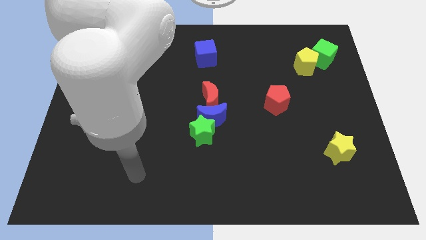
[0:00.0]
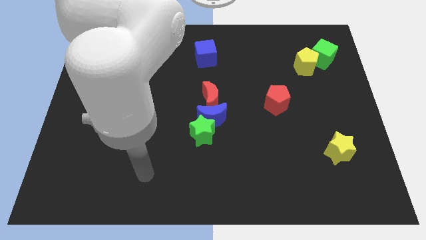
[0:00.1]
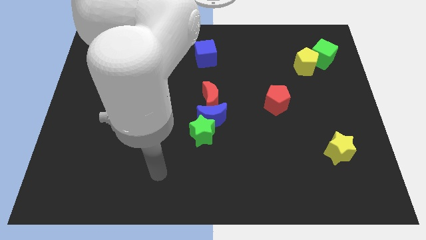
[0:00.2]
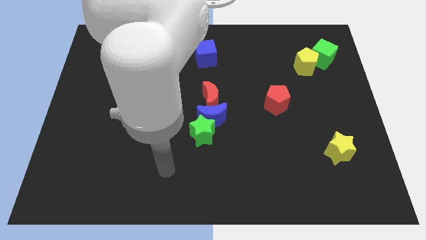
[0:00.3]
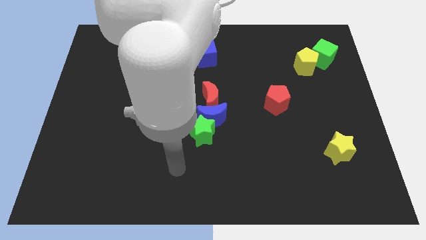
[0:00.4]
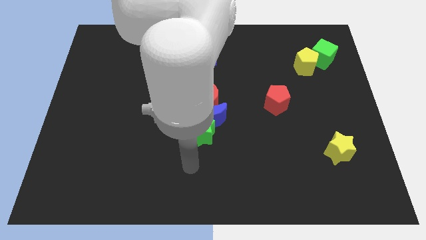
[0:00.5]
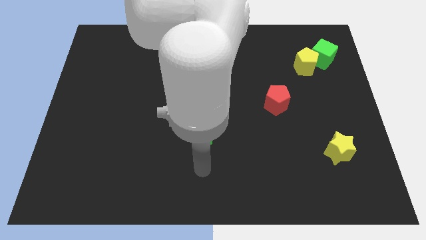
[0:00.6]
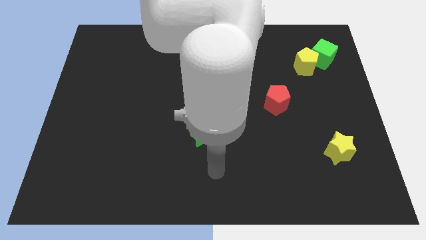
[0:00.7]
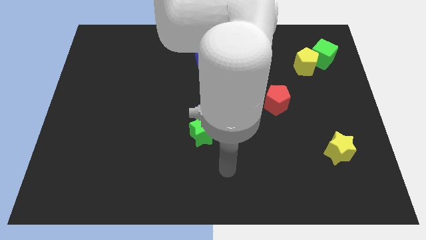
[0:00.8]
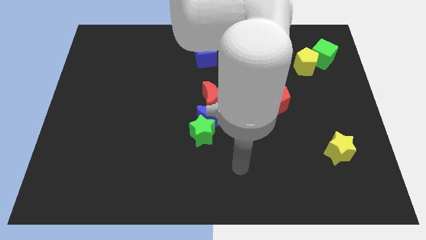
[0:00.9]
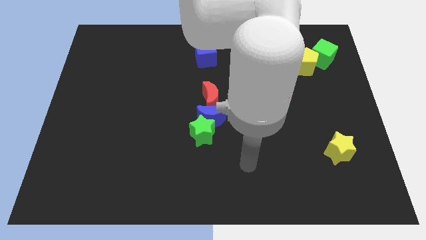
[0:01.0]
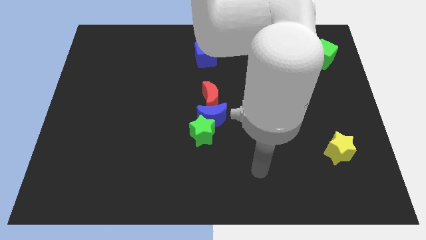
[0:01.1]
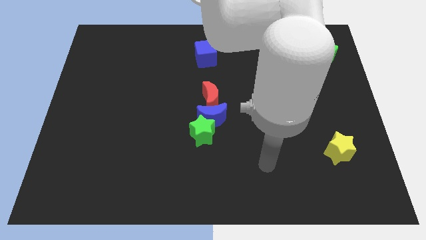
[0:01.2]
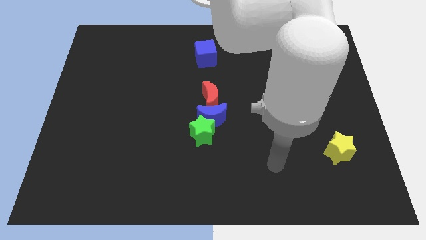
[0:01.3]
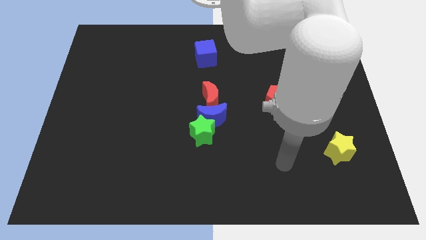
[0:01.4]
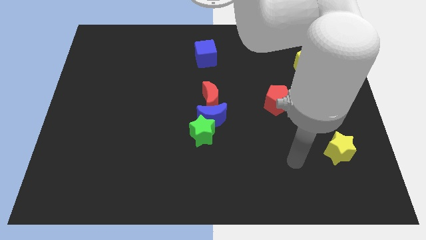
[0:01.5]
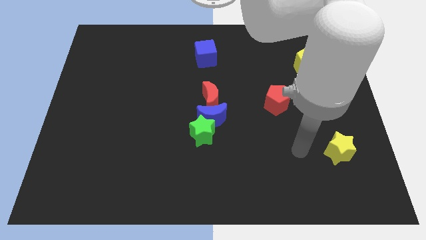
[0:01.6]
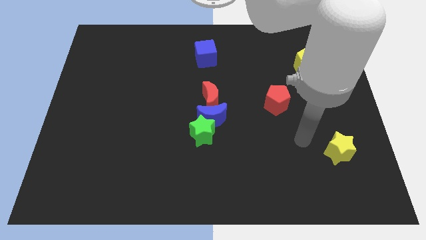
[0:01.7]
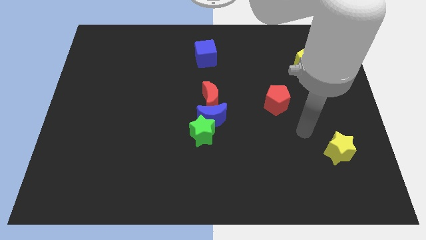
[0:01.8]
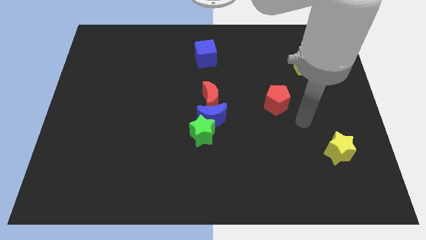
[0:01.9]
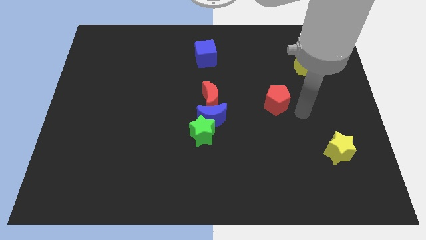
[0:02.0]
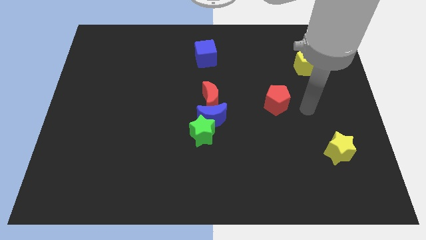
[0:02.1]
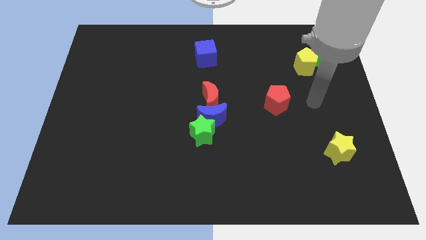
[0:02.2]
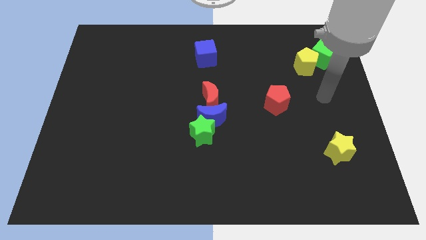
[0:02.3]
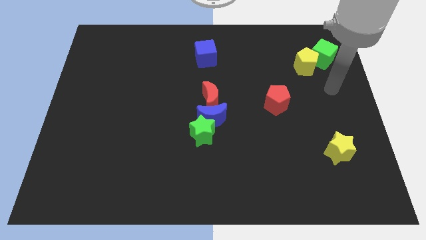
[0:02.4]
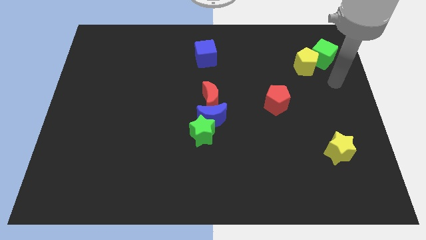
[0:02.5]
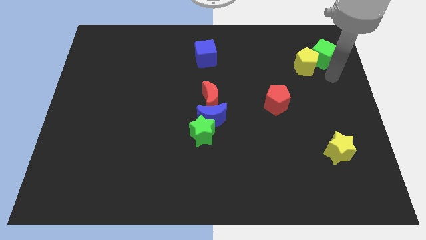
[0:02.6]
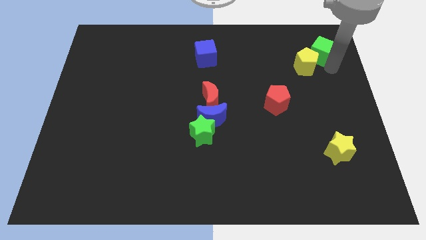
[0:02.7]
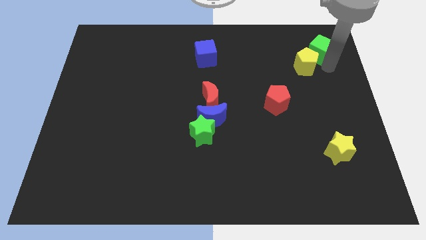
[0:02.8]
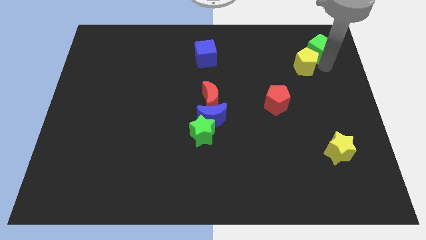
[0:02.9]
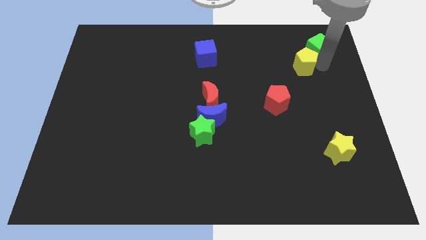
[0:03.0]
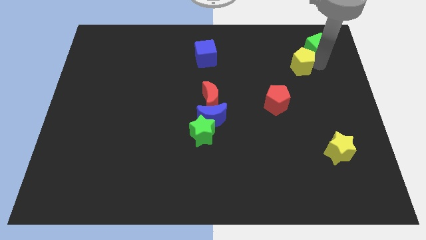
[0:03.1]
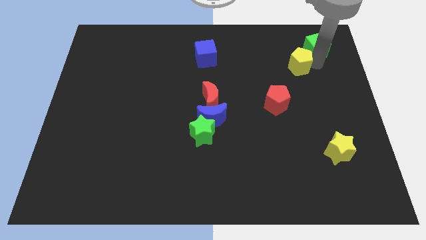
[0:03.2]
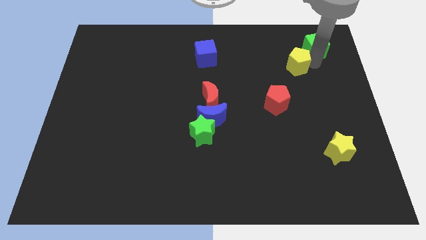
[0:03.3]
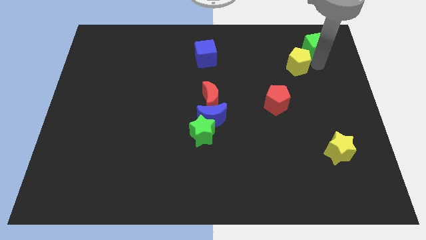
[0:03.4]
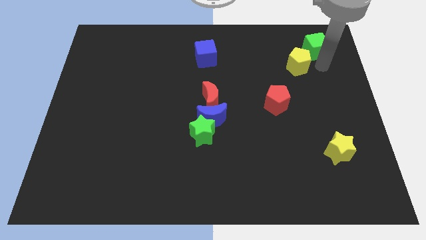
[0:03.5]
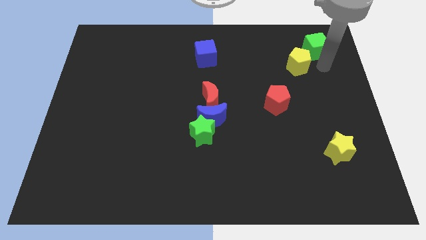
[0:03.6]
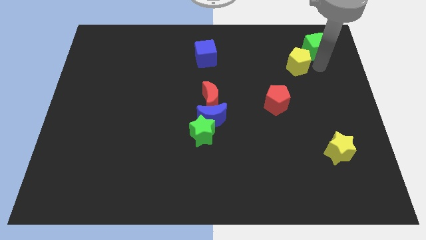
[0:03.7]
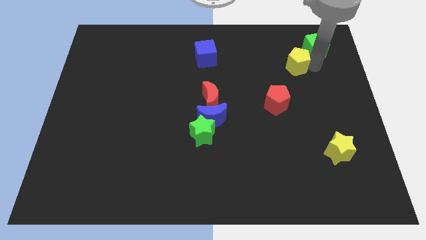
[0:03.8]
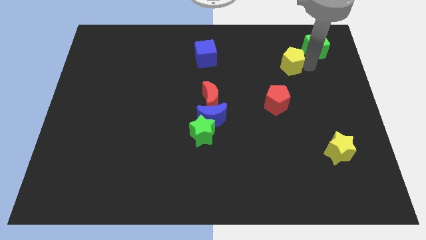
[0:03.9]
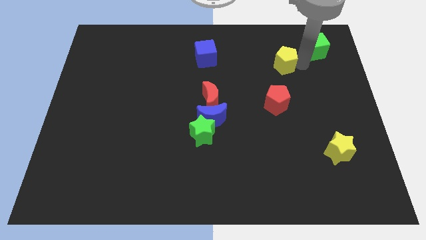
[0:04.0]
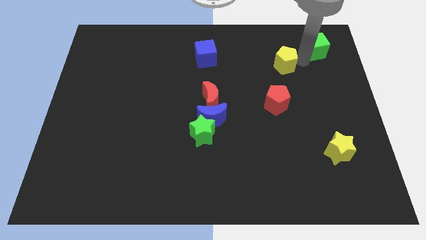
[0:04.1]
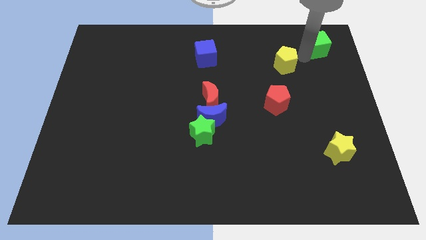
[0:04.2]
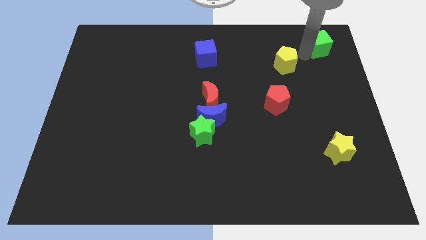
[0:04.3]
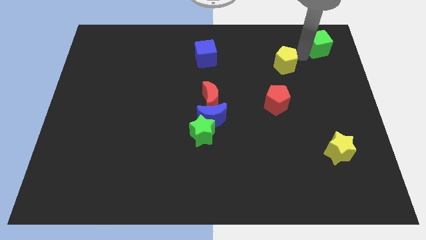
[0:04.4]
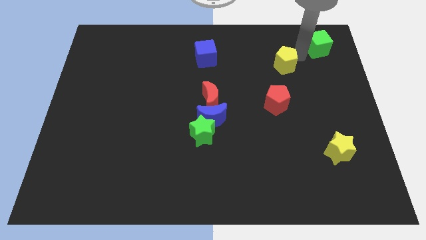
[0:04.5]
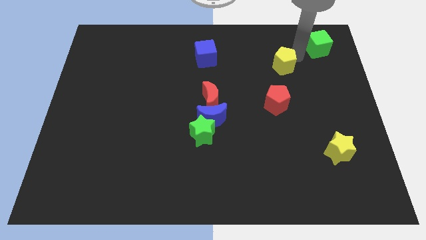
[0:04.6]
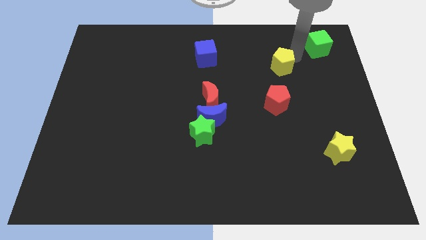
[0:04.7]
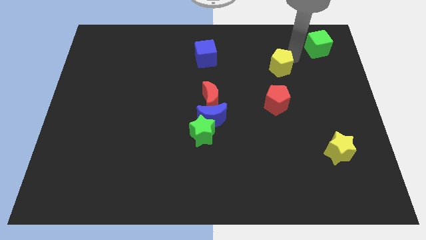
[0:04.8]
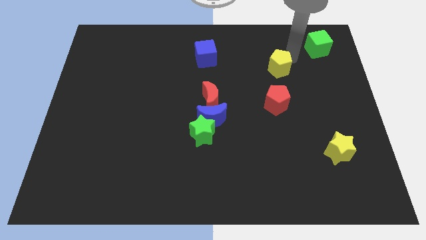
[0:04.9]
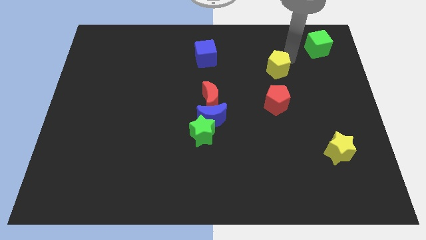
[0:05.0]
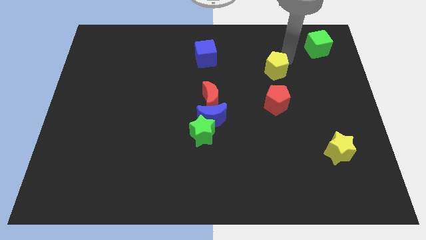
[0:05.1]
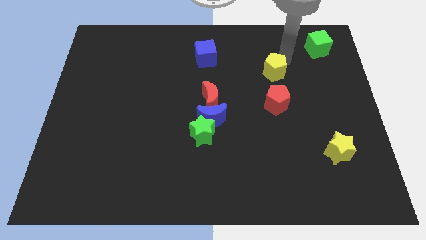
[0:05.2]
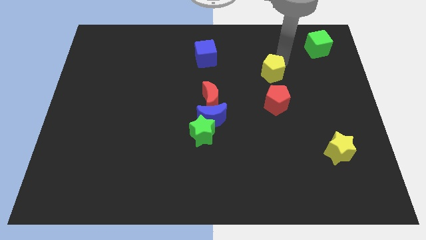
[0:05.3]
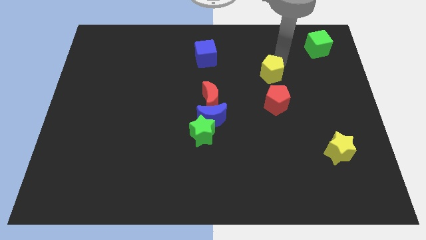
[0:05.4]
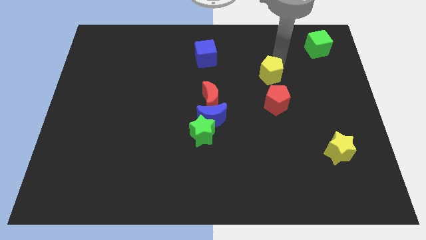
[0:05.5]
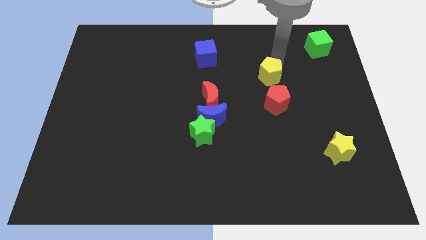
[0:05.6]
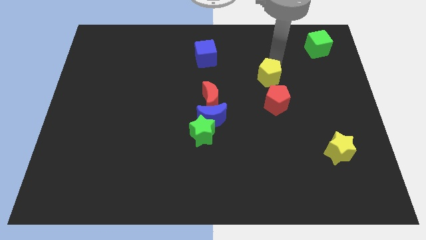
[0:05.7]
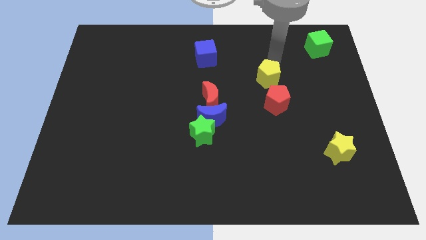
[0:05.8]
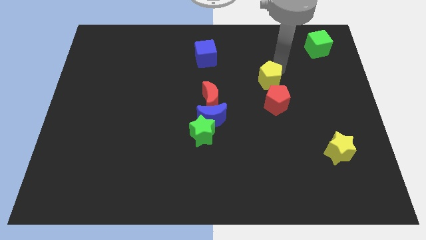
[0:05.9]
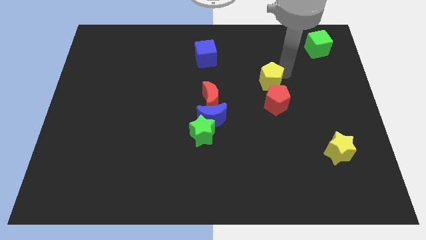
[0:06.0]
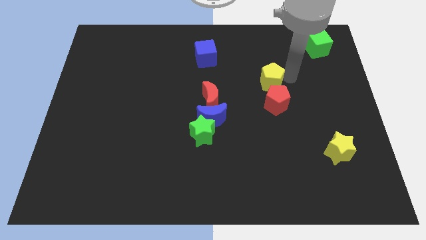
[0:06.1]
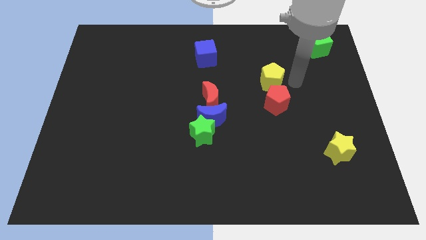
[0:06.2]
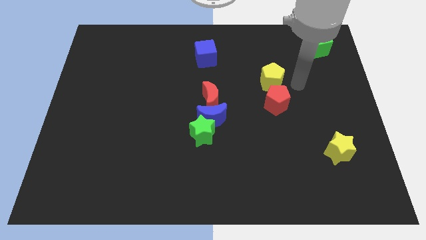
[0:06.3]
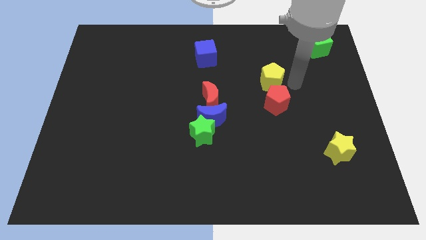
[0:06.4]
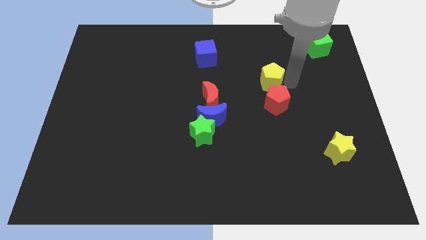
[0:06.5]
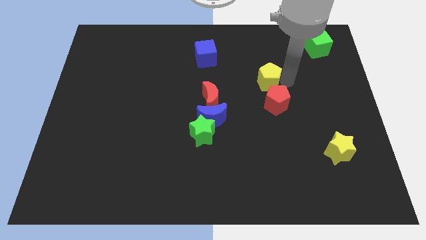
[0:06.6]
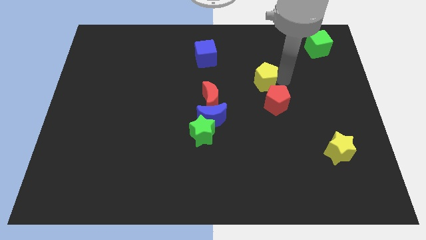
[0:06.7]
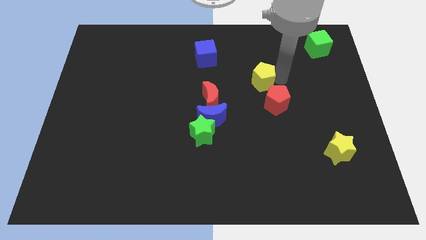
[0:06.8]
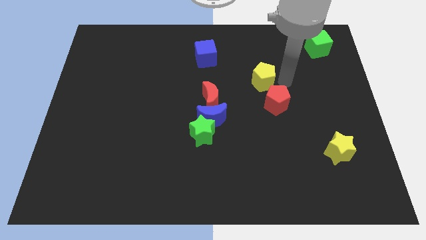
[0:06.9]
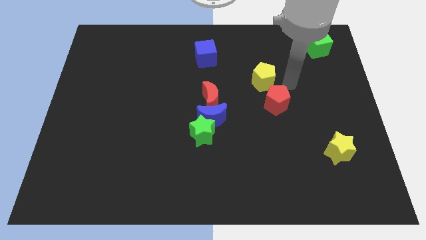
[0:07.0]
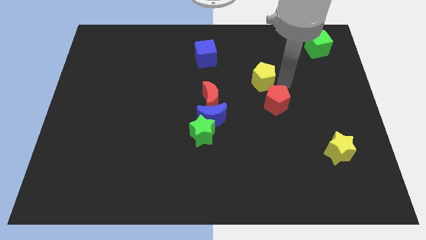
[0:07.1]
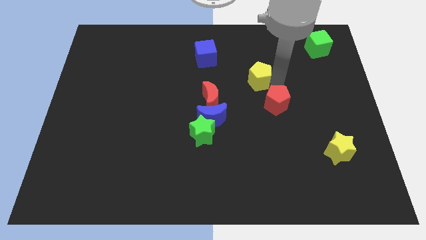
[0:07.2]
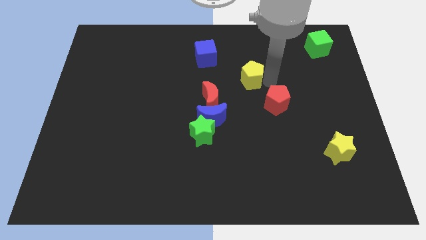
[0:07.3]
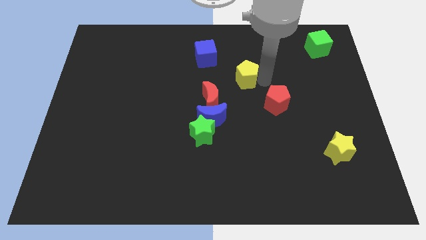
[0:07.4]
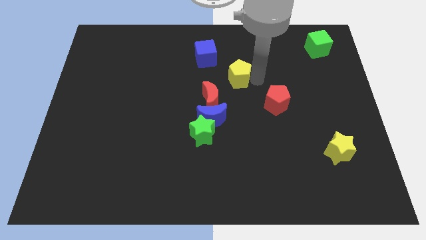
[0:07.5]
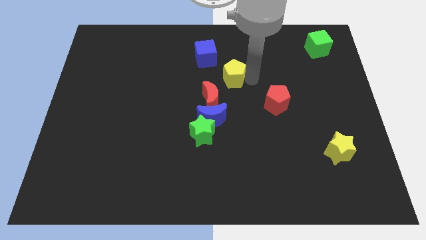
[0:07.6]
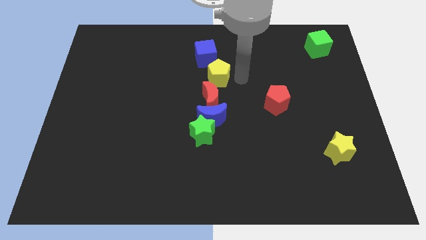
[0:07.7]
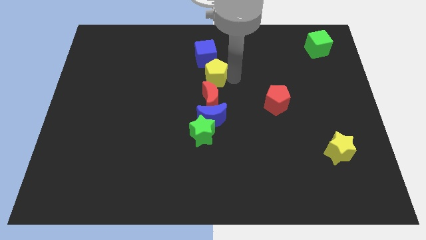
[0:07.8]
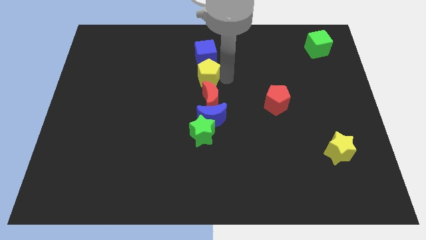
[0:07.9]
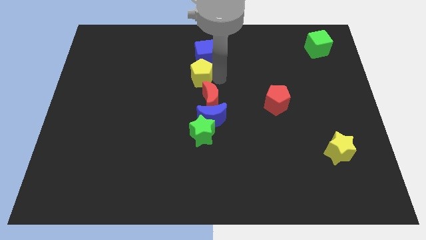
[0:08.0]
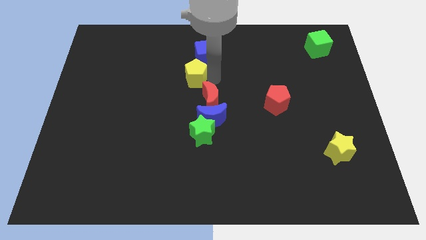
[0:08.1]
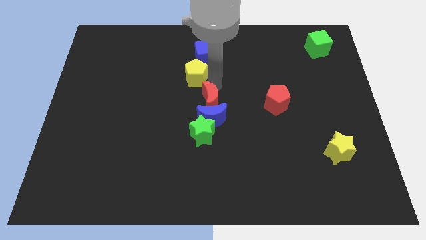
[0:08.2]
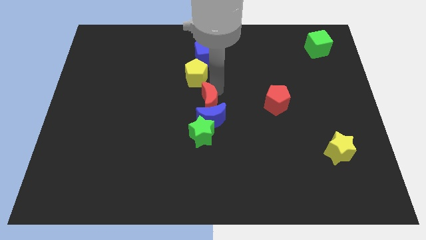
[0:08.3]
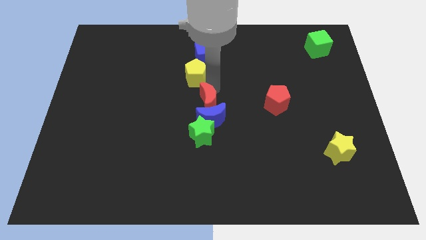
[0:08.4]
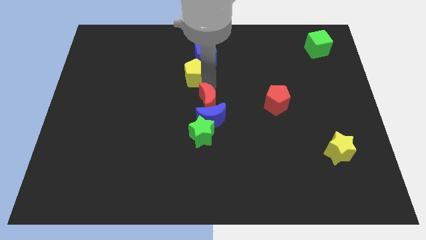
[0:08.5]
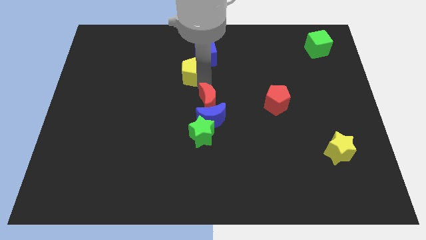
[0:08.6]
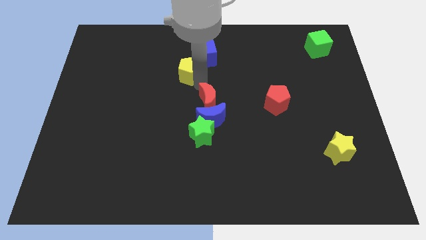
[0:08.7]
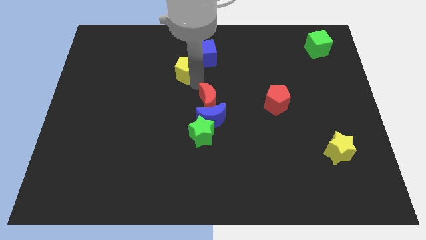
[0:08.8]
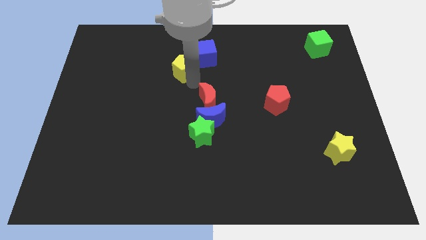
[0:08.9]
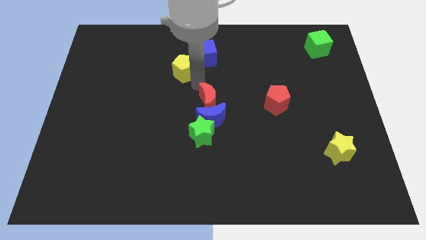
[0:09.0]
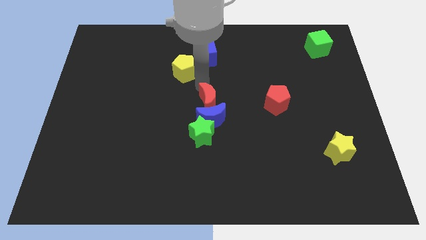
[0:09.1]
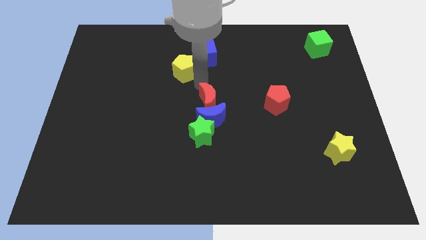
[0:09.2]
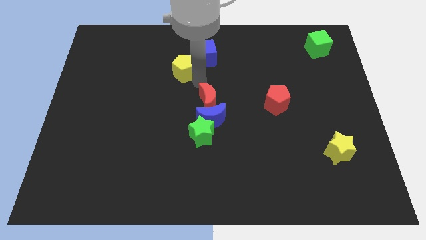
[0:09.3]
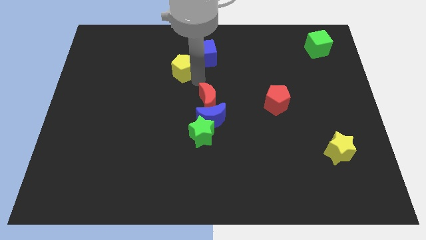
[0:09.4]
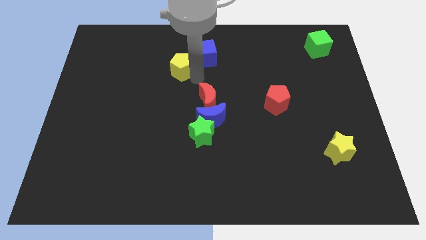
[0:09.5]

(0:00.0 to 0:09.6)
slide the yellow pentagon to the left of the blue cube
